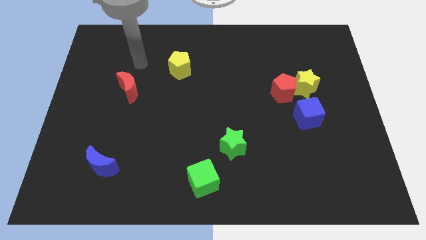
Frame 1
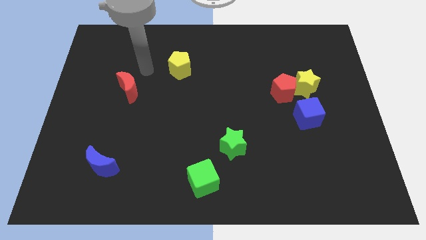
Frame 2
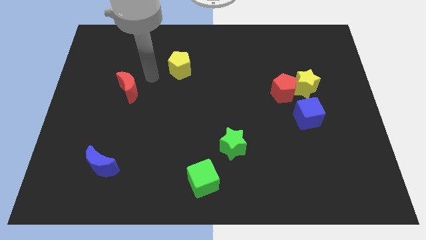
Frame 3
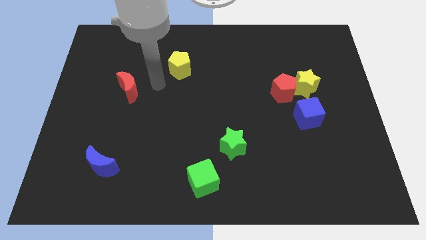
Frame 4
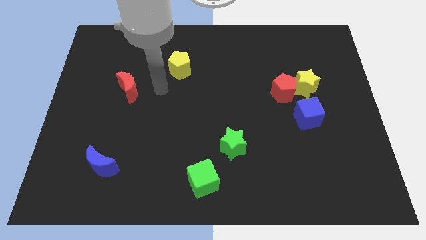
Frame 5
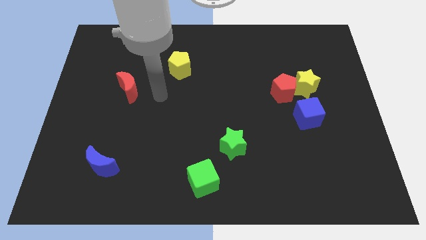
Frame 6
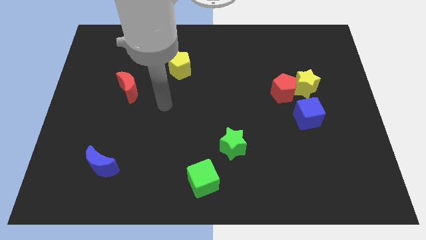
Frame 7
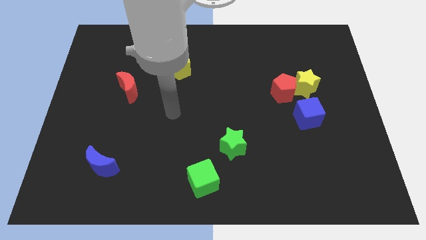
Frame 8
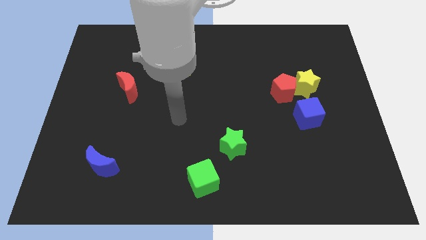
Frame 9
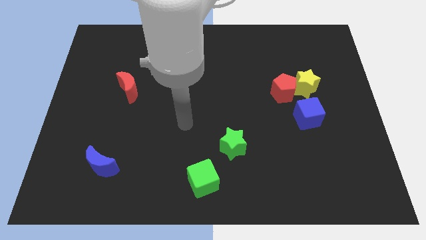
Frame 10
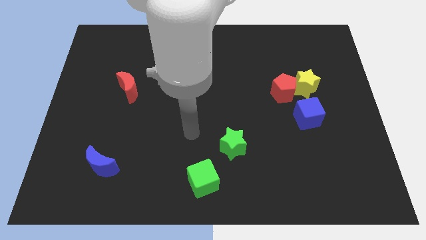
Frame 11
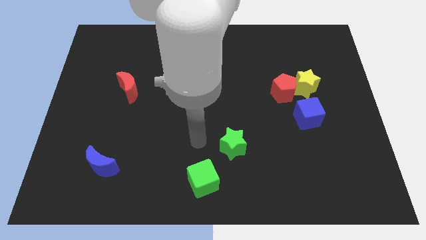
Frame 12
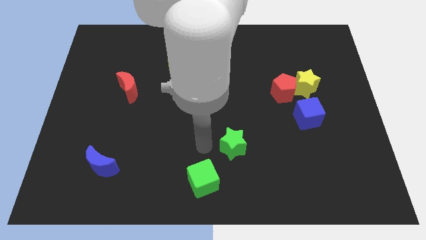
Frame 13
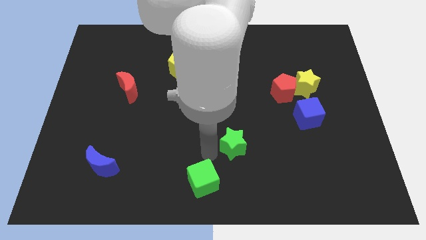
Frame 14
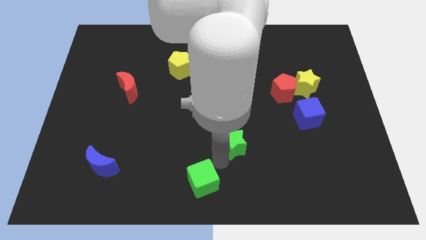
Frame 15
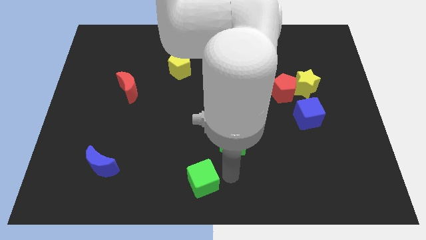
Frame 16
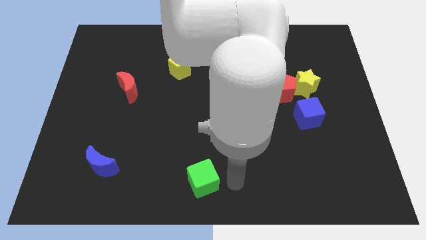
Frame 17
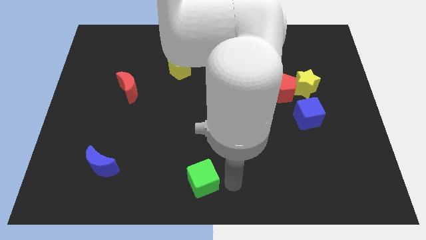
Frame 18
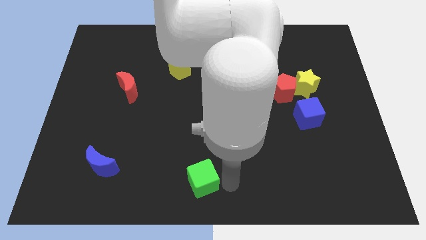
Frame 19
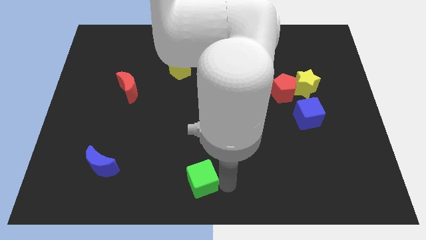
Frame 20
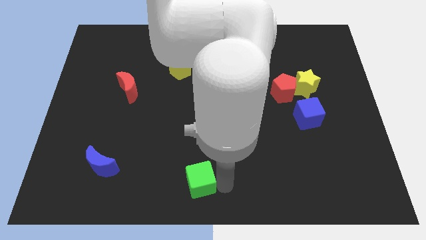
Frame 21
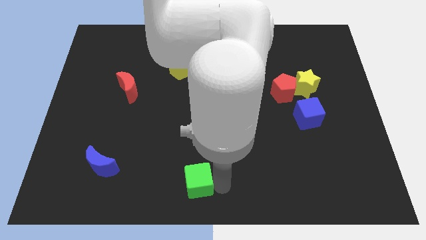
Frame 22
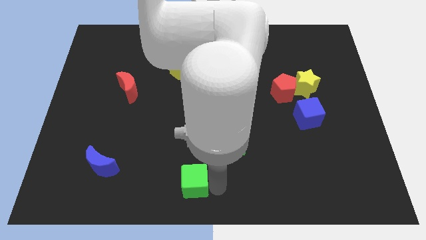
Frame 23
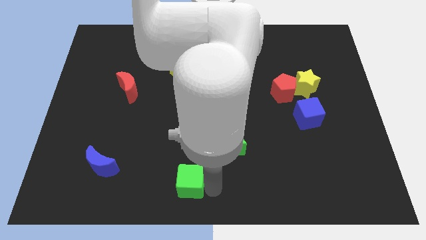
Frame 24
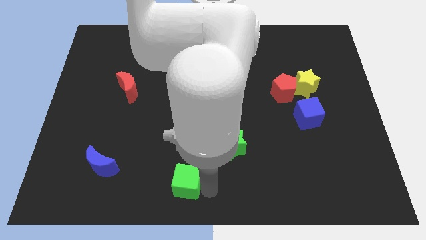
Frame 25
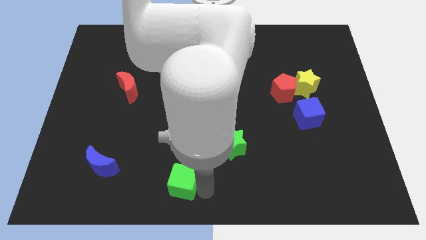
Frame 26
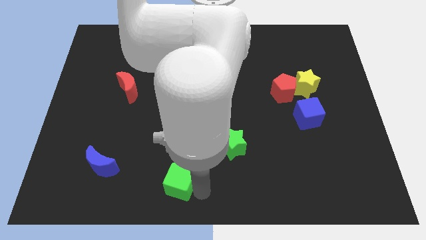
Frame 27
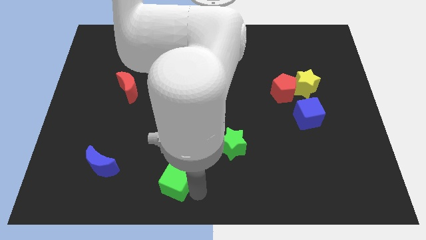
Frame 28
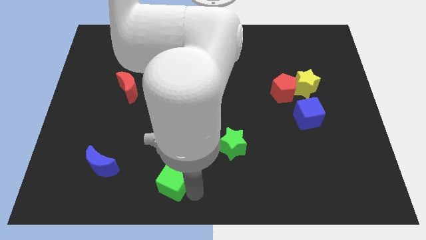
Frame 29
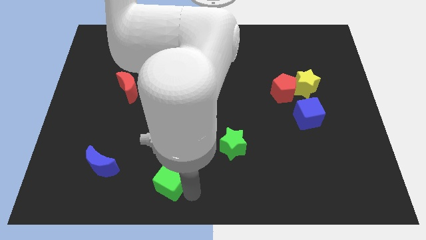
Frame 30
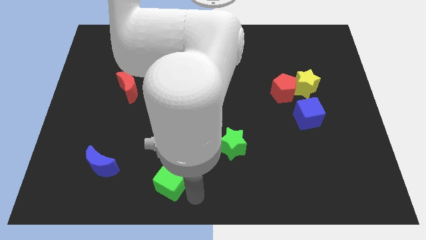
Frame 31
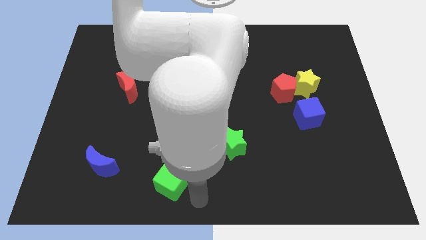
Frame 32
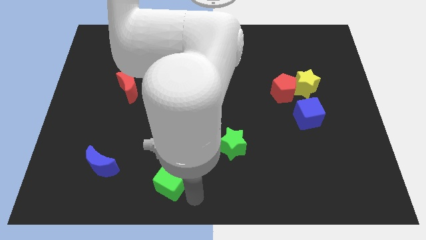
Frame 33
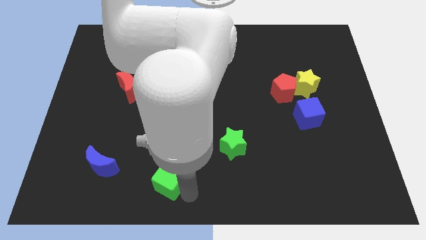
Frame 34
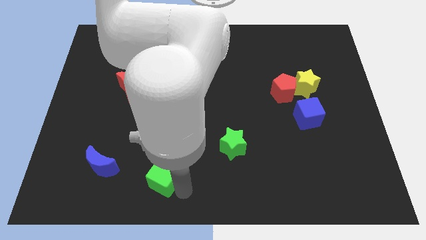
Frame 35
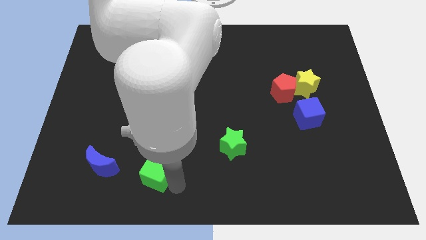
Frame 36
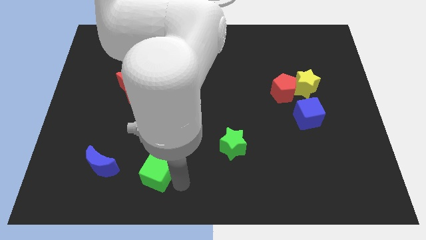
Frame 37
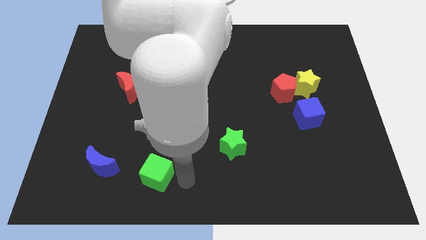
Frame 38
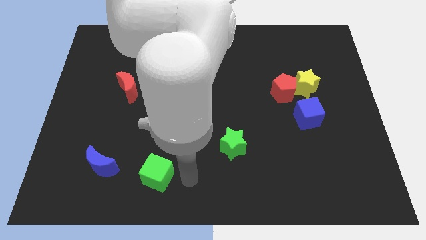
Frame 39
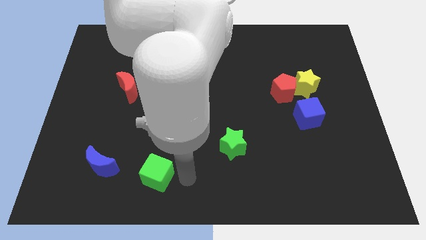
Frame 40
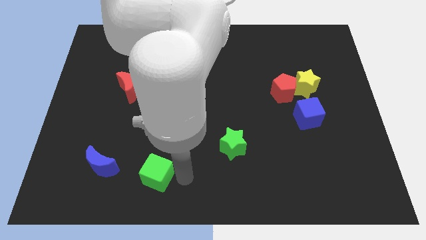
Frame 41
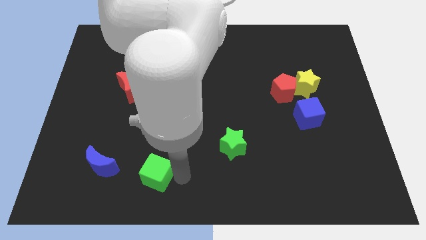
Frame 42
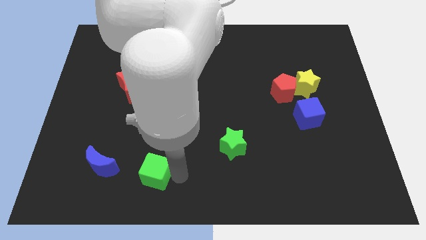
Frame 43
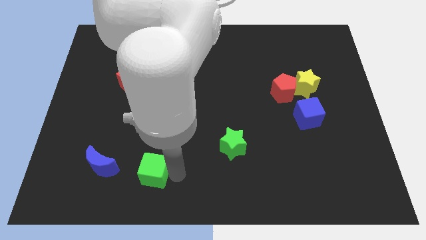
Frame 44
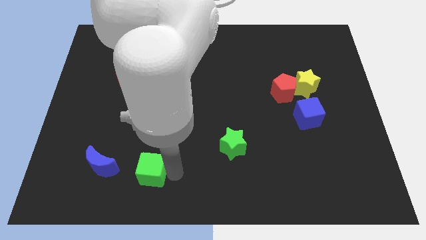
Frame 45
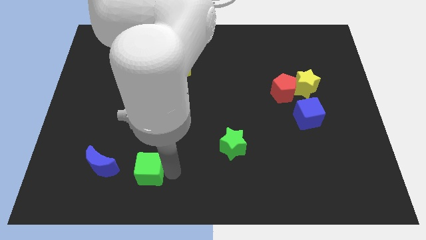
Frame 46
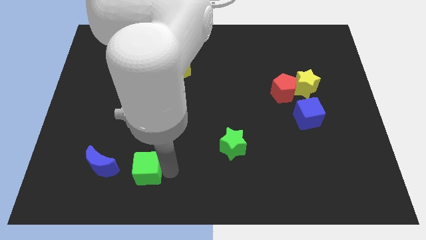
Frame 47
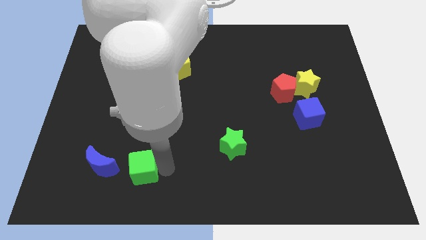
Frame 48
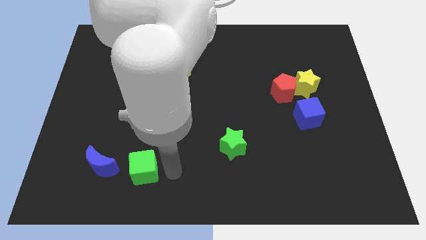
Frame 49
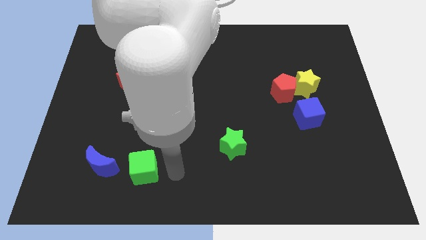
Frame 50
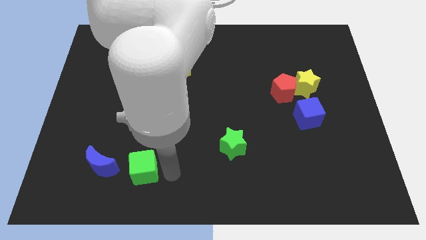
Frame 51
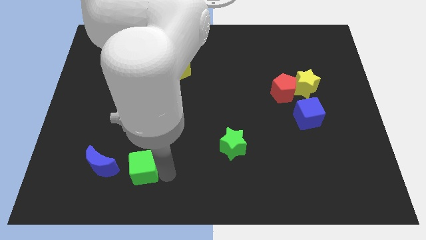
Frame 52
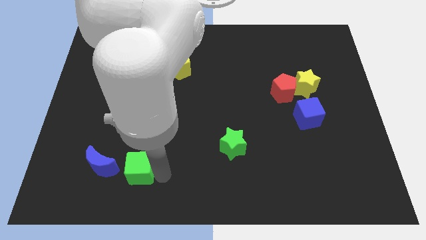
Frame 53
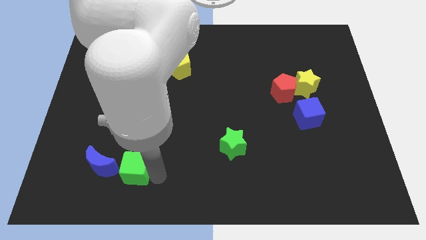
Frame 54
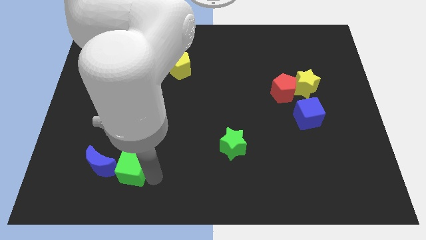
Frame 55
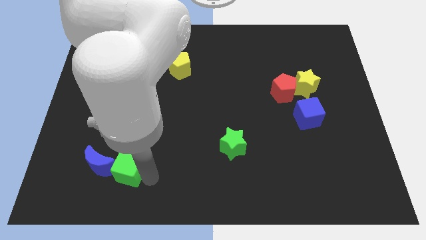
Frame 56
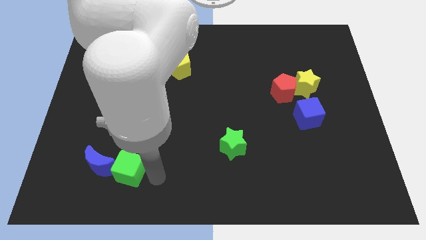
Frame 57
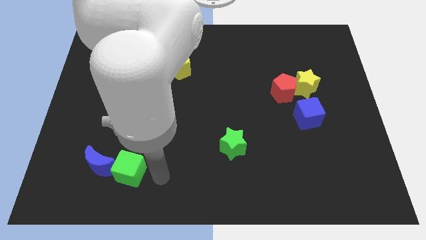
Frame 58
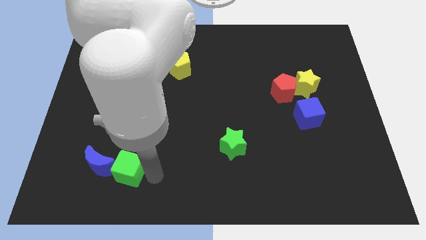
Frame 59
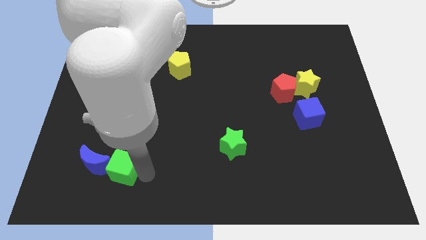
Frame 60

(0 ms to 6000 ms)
slide the green cube close to the blue moon

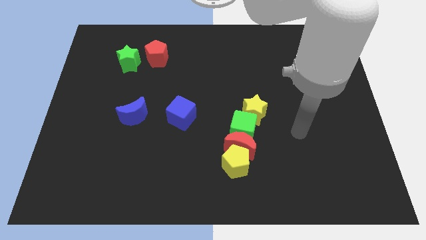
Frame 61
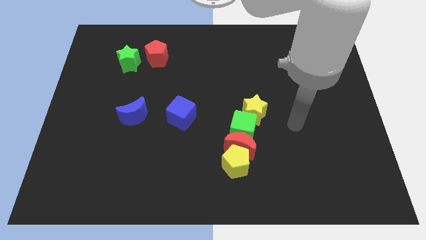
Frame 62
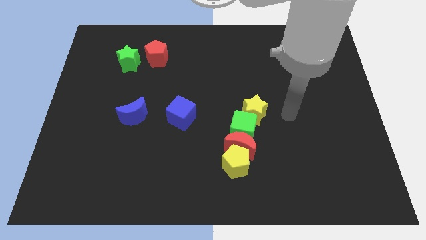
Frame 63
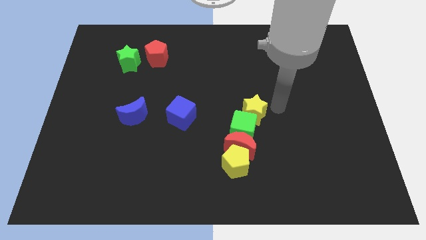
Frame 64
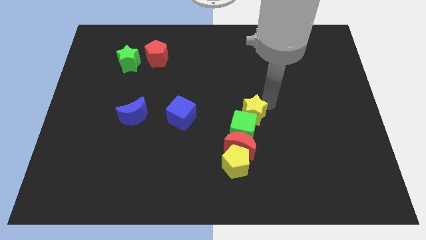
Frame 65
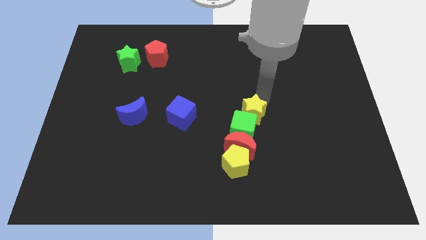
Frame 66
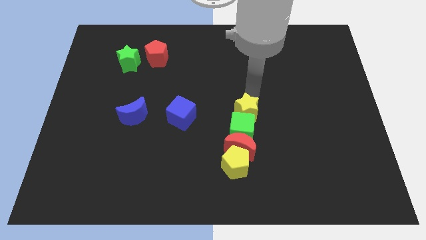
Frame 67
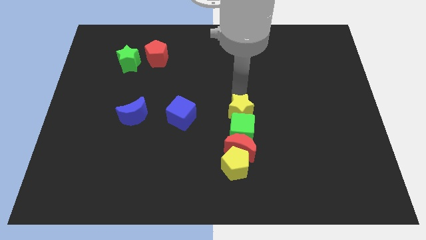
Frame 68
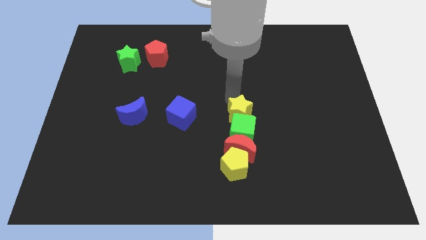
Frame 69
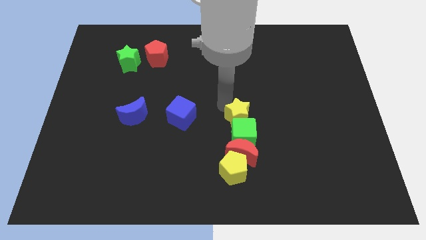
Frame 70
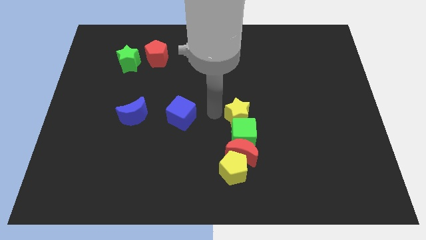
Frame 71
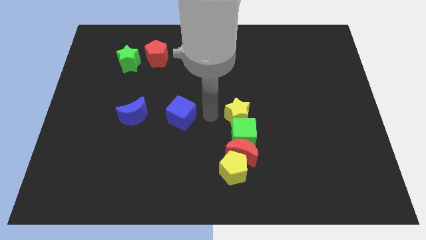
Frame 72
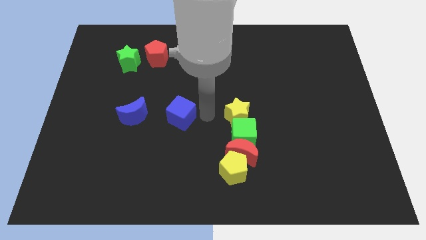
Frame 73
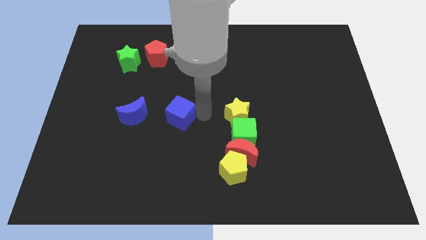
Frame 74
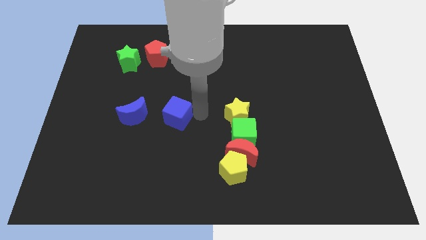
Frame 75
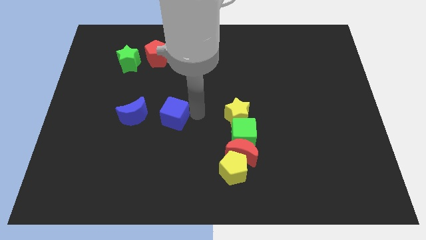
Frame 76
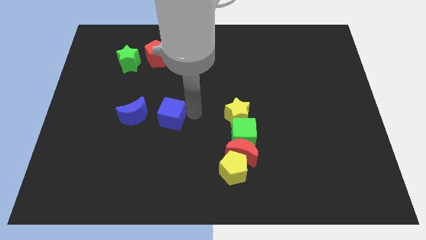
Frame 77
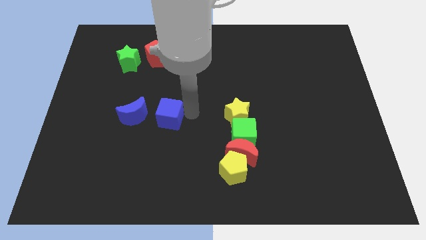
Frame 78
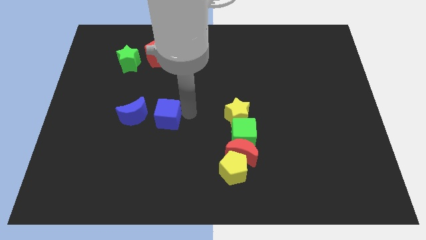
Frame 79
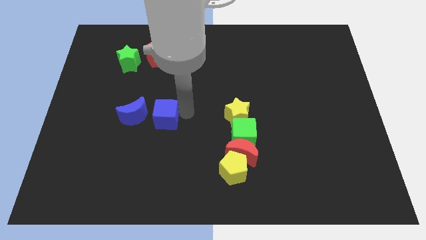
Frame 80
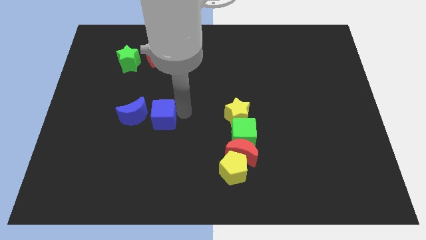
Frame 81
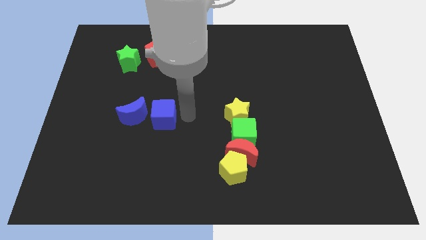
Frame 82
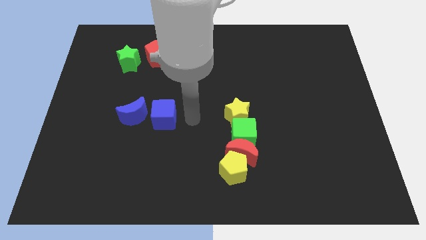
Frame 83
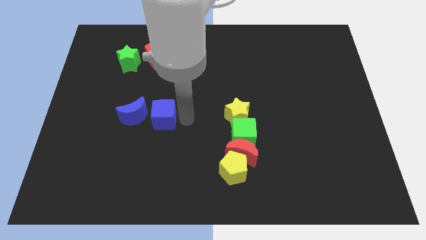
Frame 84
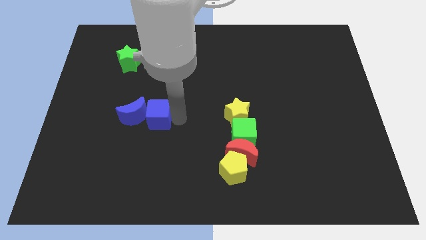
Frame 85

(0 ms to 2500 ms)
slide the blue cube next to the blue moon
